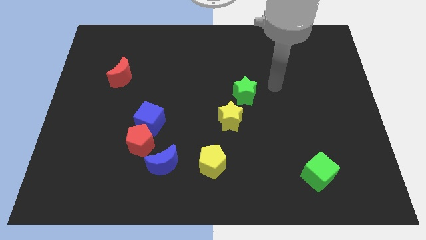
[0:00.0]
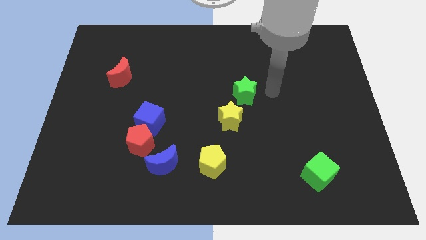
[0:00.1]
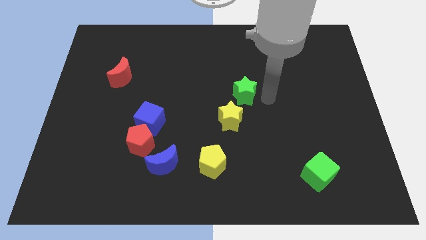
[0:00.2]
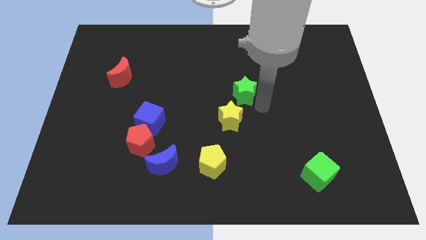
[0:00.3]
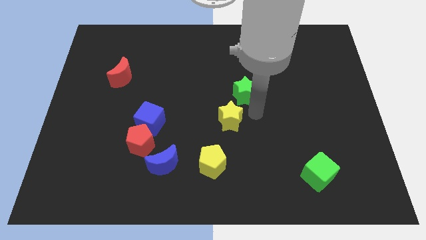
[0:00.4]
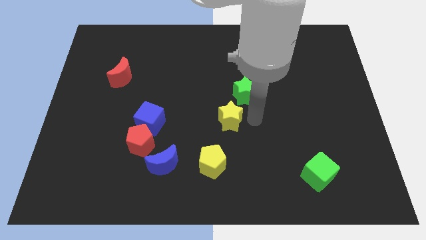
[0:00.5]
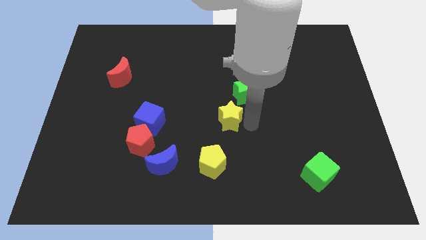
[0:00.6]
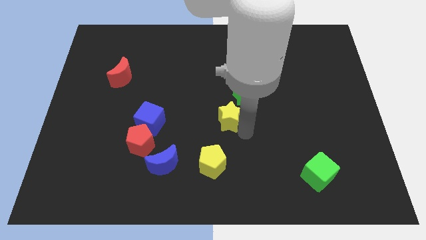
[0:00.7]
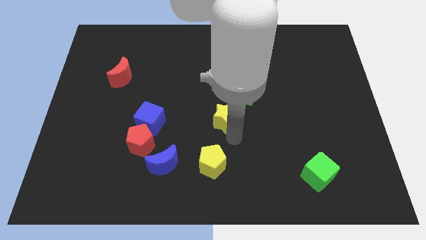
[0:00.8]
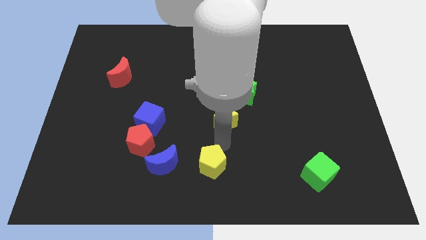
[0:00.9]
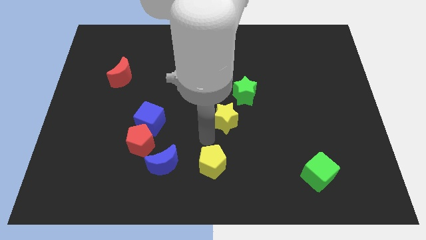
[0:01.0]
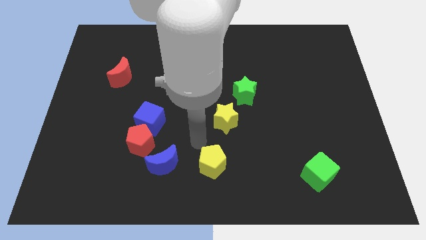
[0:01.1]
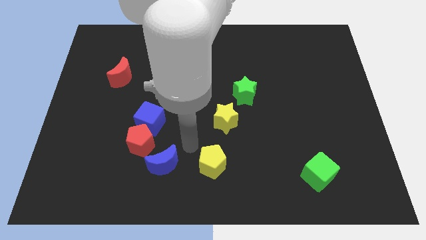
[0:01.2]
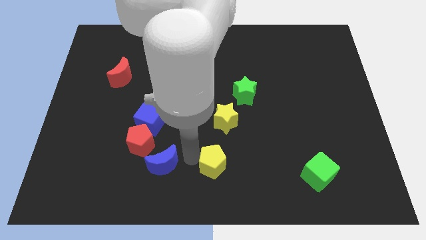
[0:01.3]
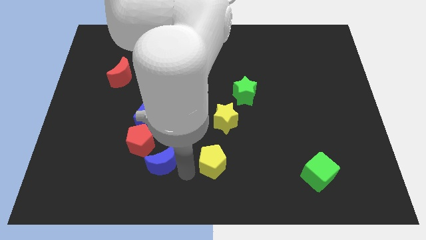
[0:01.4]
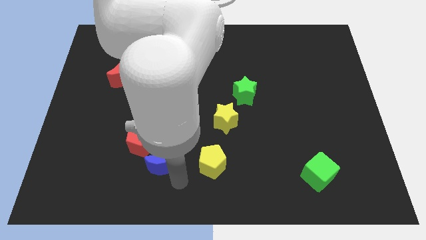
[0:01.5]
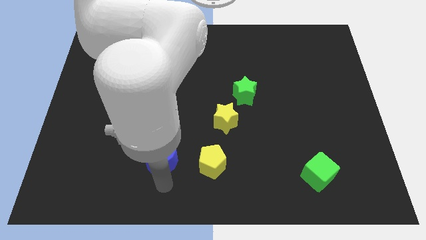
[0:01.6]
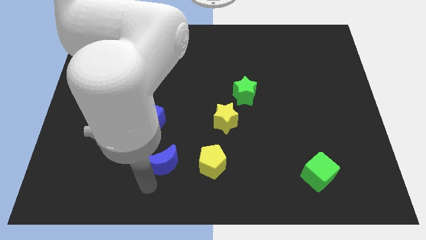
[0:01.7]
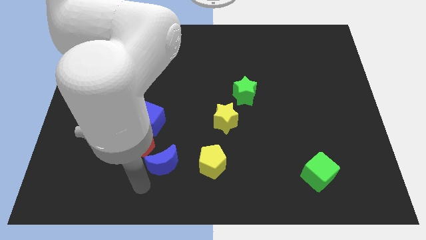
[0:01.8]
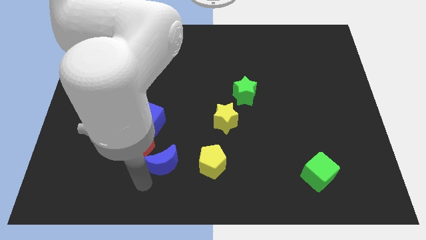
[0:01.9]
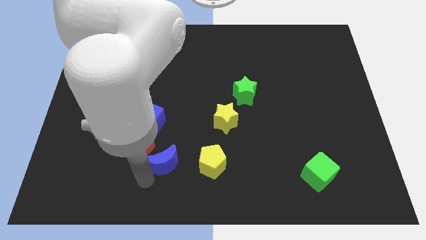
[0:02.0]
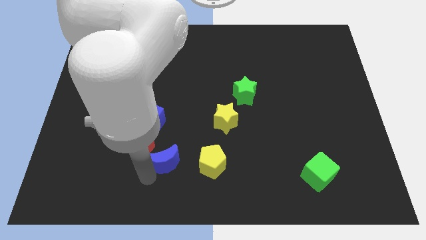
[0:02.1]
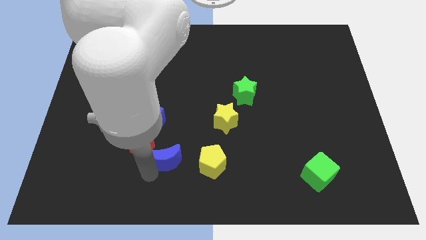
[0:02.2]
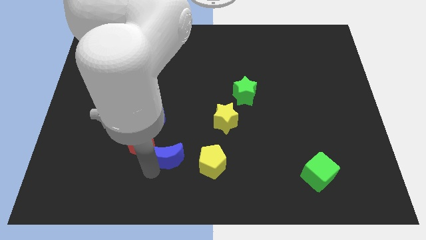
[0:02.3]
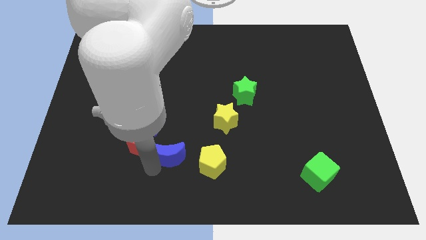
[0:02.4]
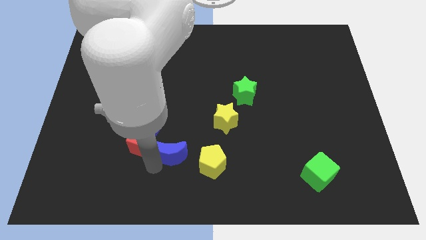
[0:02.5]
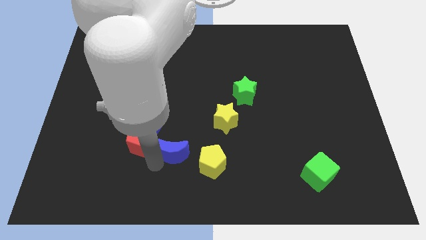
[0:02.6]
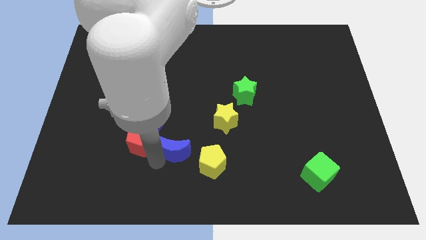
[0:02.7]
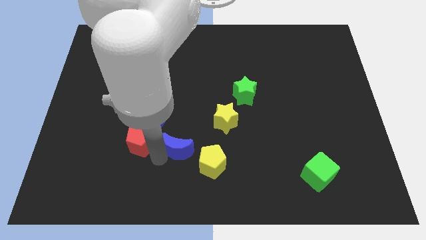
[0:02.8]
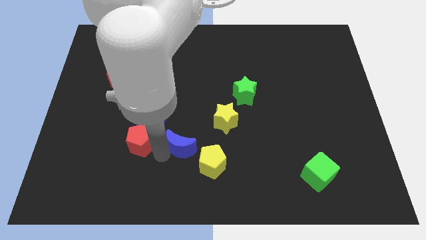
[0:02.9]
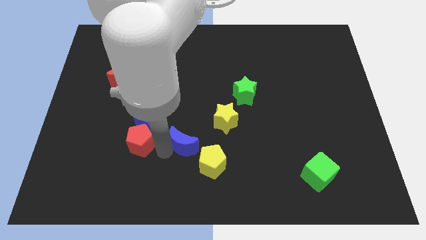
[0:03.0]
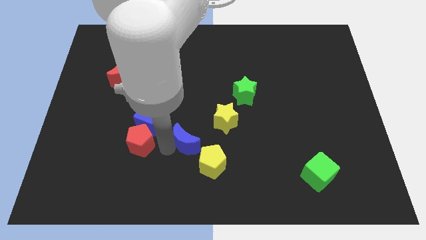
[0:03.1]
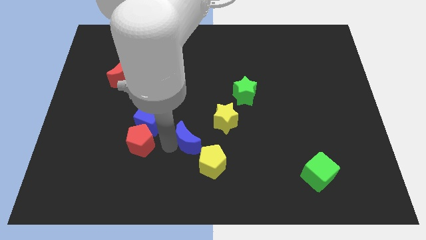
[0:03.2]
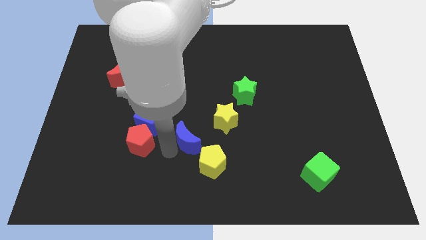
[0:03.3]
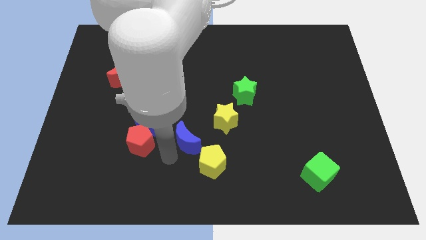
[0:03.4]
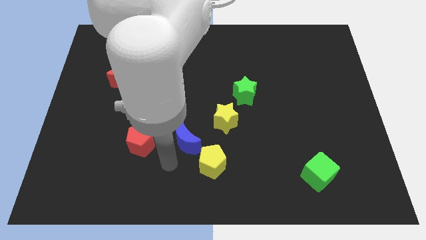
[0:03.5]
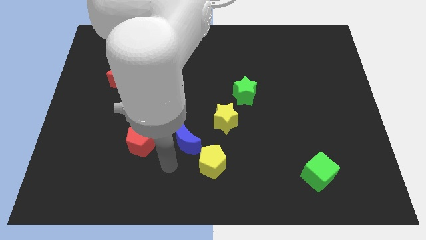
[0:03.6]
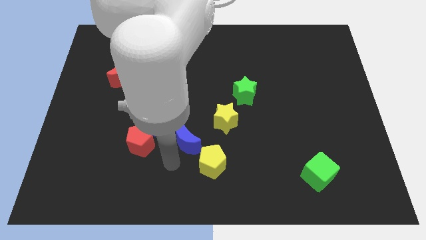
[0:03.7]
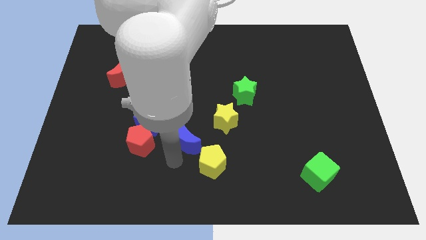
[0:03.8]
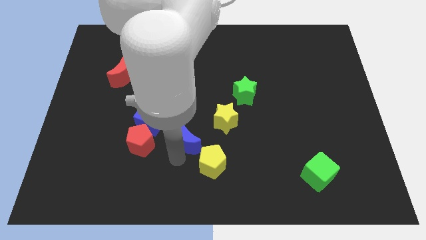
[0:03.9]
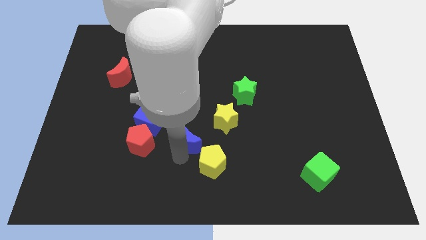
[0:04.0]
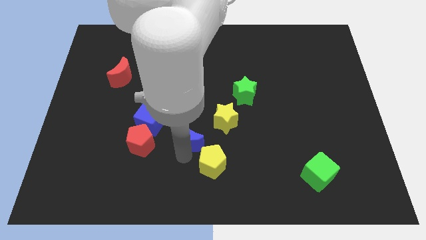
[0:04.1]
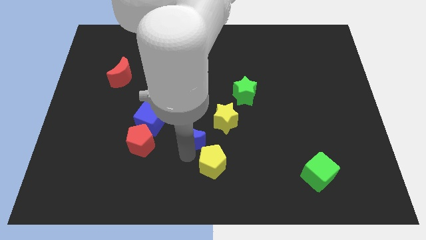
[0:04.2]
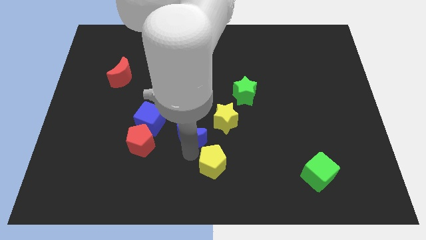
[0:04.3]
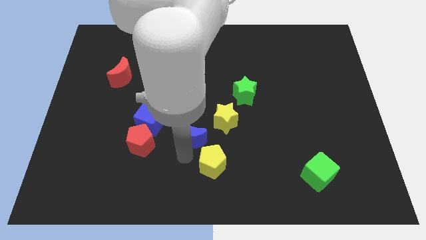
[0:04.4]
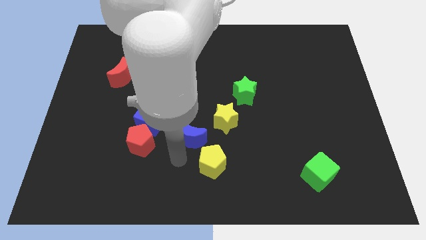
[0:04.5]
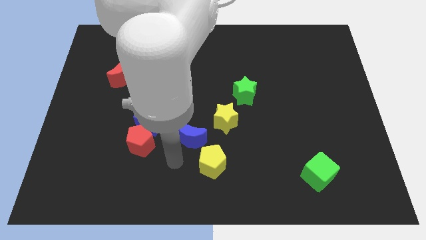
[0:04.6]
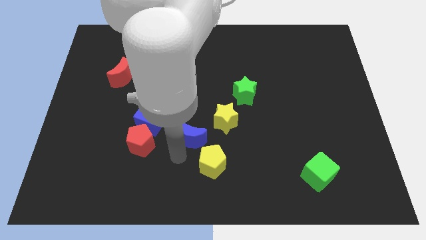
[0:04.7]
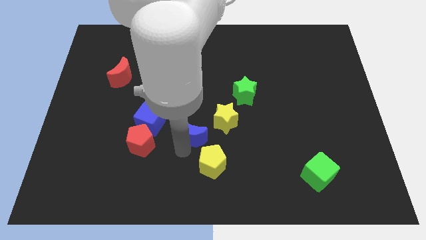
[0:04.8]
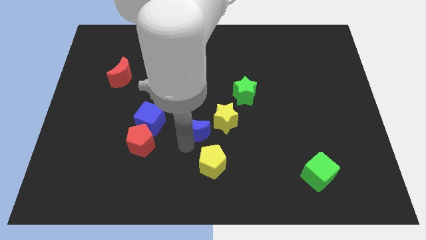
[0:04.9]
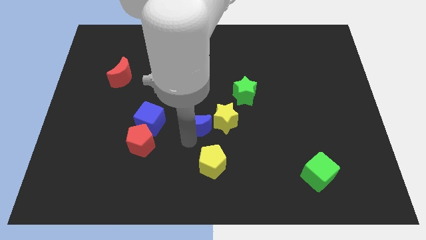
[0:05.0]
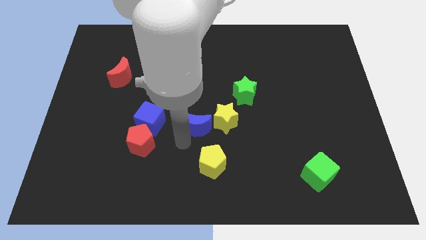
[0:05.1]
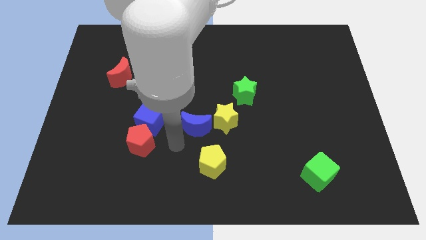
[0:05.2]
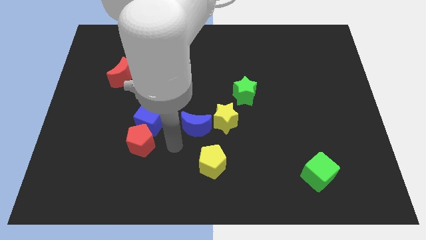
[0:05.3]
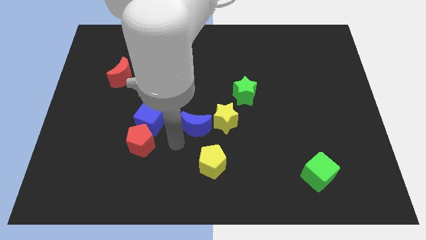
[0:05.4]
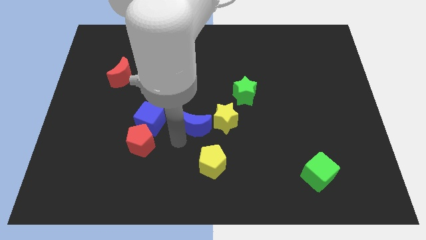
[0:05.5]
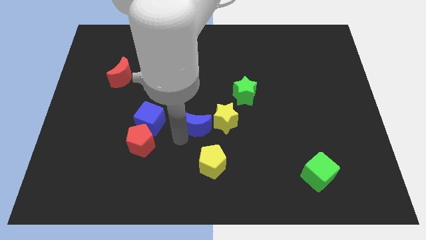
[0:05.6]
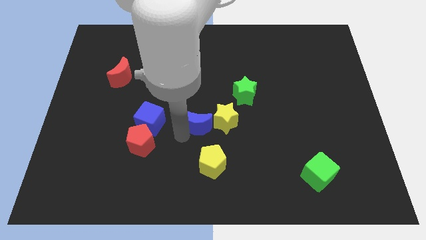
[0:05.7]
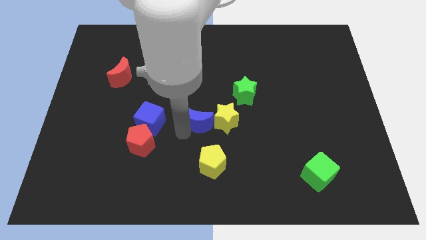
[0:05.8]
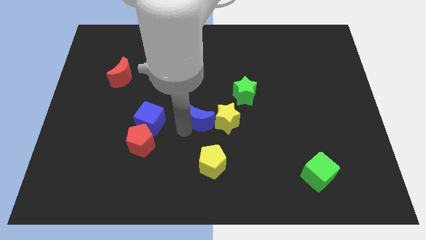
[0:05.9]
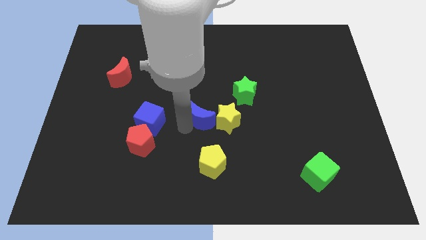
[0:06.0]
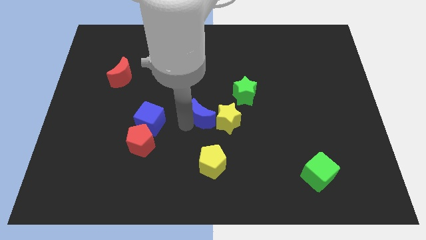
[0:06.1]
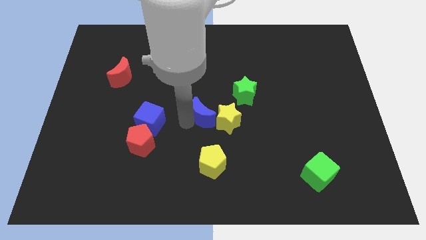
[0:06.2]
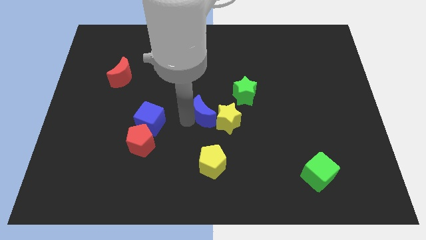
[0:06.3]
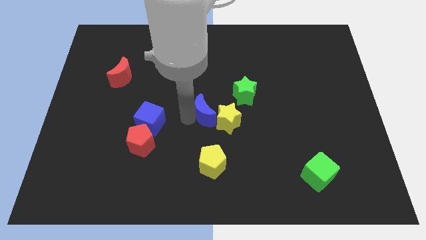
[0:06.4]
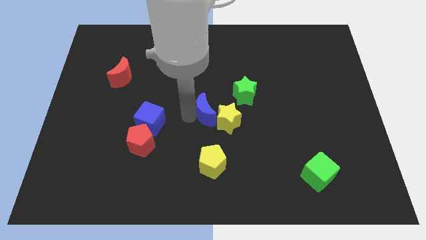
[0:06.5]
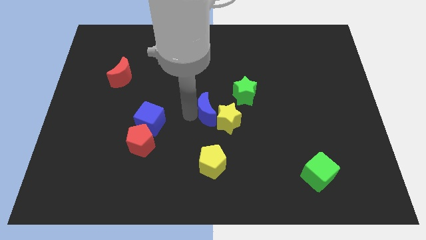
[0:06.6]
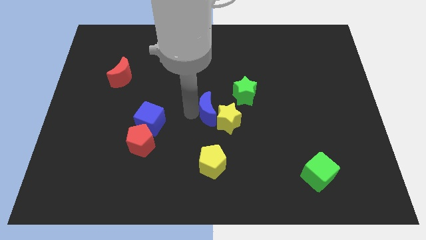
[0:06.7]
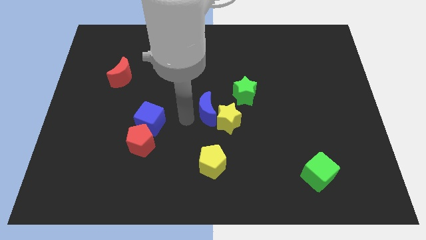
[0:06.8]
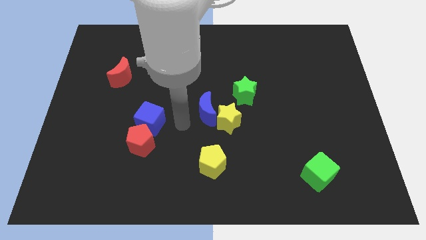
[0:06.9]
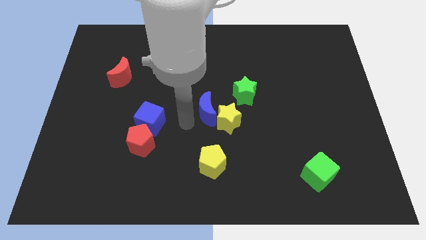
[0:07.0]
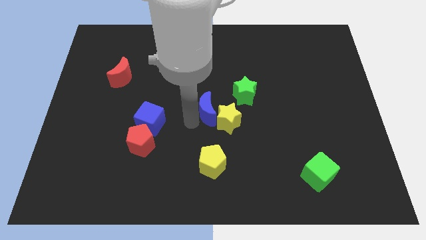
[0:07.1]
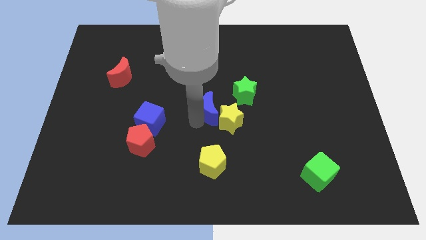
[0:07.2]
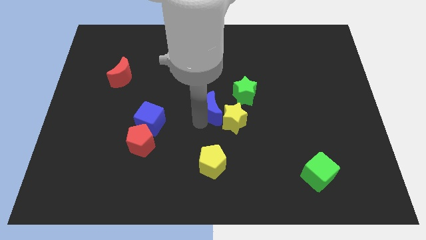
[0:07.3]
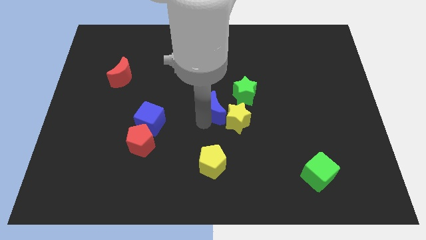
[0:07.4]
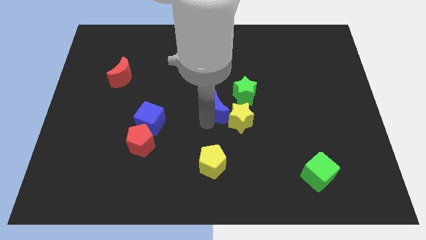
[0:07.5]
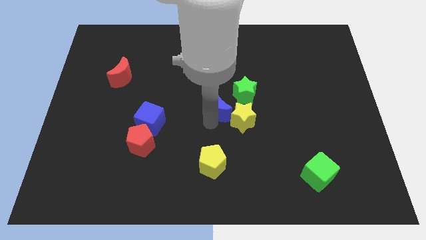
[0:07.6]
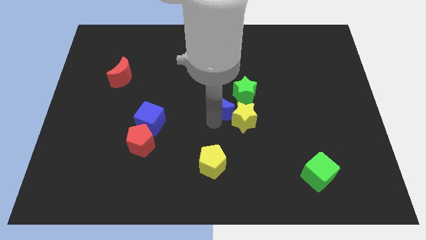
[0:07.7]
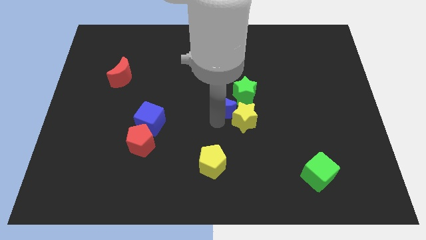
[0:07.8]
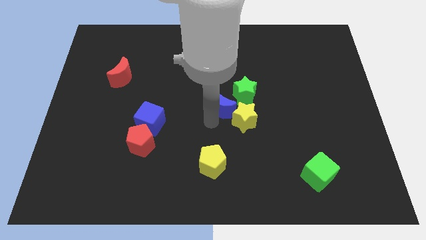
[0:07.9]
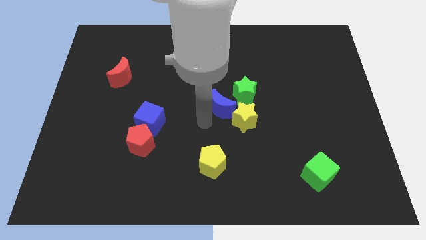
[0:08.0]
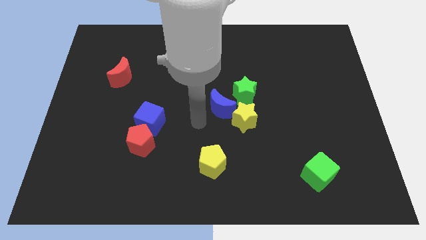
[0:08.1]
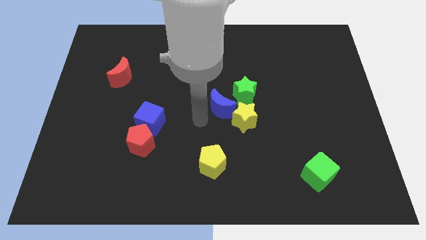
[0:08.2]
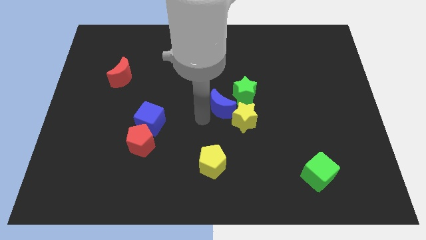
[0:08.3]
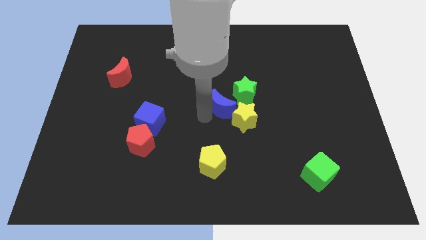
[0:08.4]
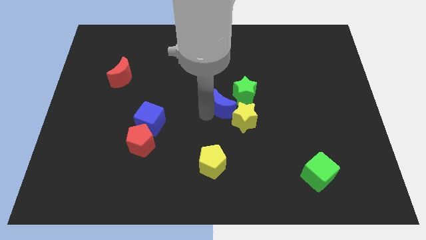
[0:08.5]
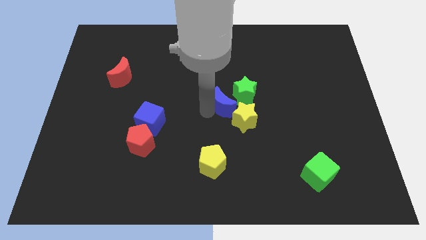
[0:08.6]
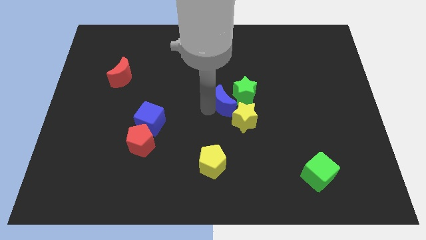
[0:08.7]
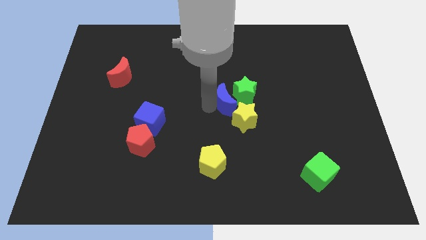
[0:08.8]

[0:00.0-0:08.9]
put the blue moon towards the green star
